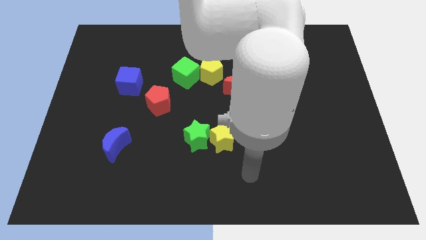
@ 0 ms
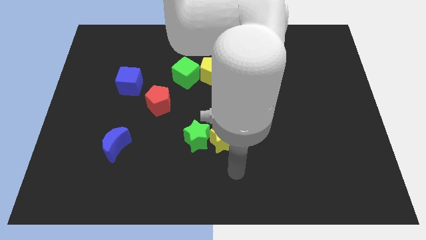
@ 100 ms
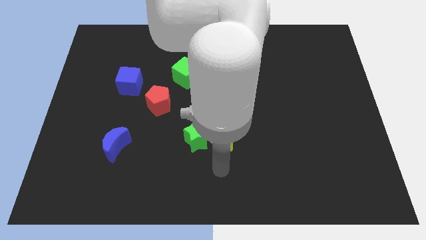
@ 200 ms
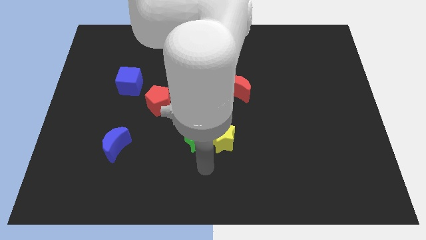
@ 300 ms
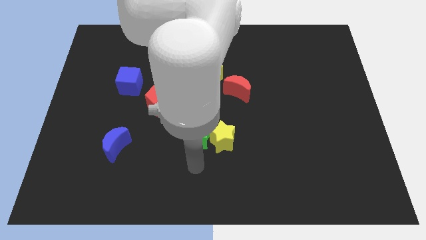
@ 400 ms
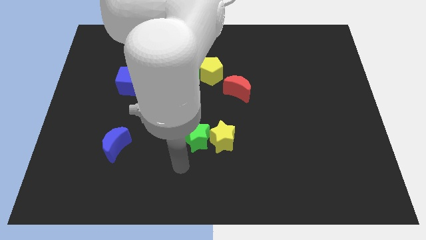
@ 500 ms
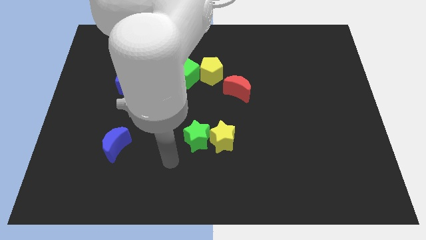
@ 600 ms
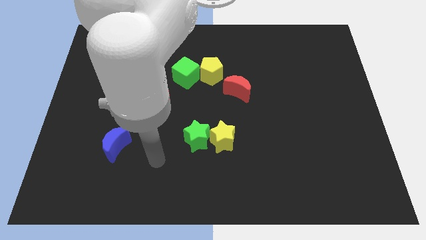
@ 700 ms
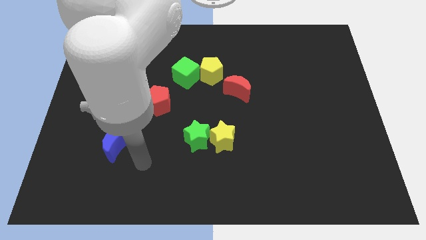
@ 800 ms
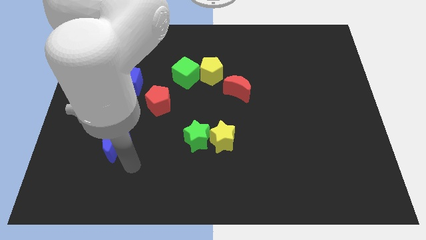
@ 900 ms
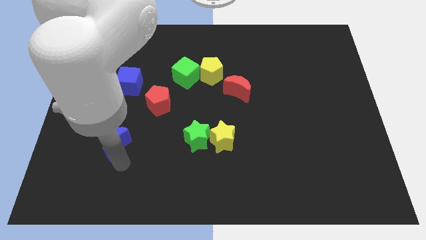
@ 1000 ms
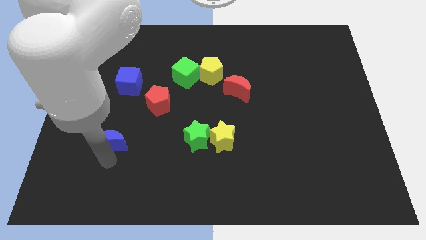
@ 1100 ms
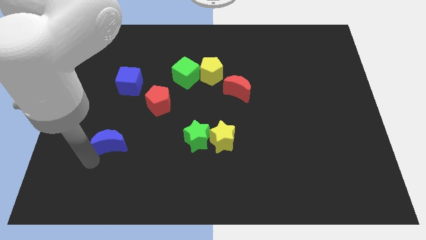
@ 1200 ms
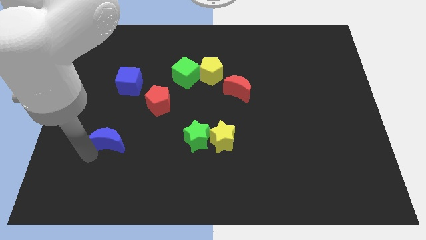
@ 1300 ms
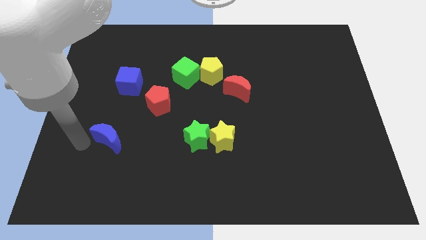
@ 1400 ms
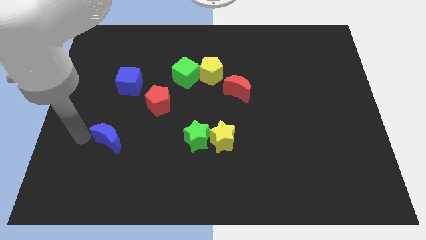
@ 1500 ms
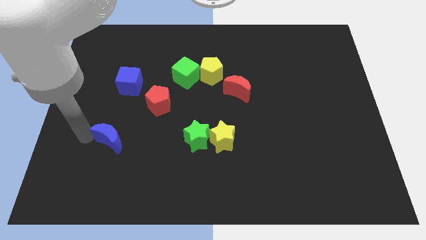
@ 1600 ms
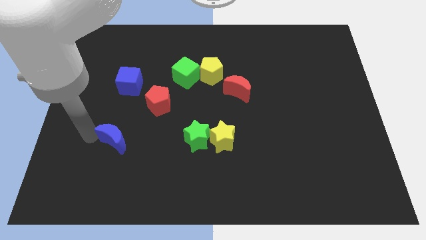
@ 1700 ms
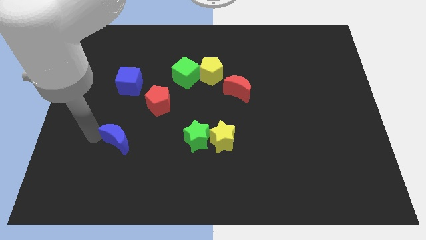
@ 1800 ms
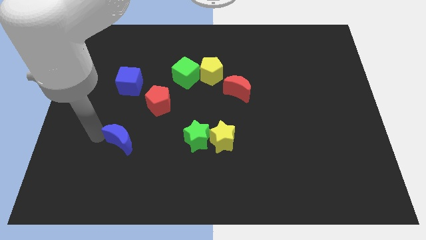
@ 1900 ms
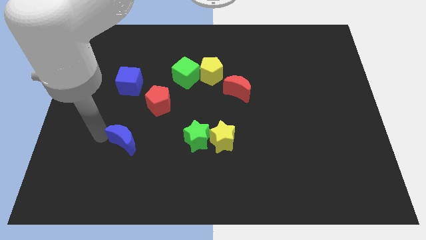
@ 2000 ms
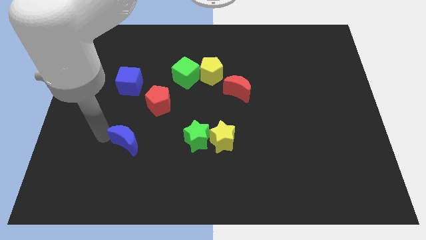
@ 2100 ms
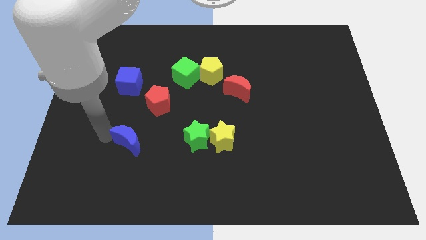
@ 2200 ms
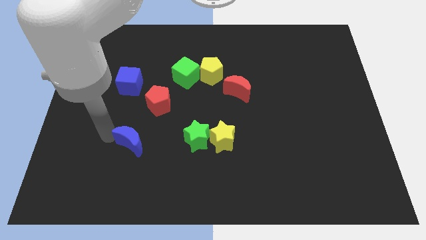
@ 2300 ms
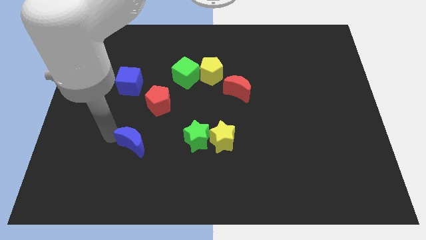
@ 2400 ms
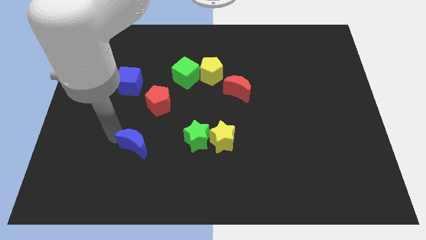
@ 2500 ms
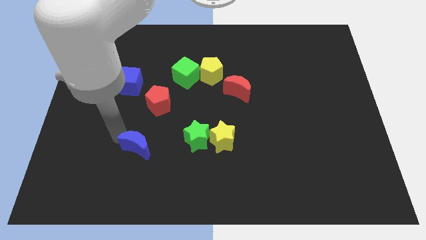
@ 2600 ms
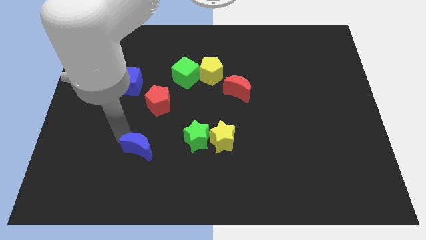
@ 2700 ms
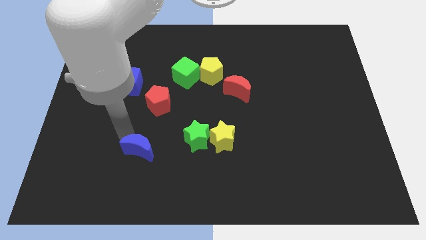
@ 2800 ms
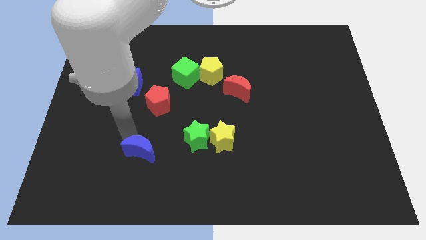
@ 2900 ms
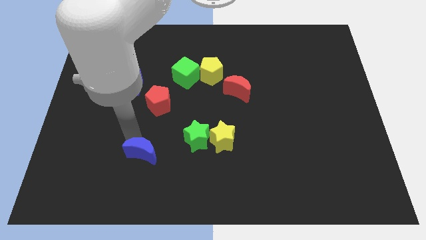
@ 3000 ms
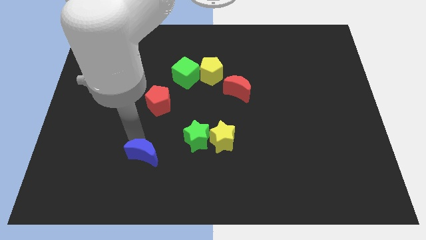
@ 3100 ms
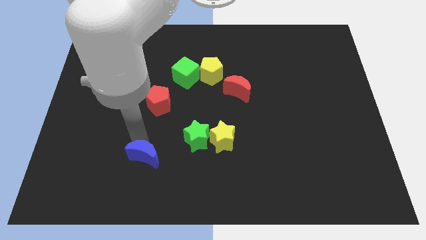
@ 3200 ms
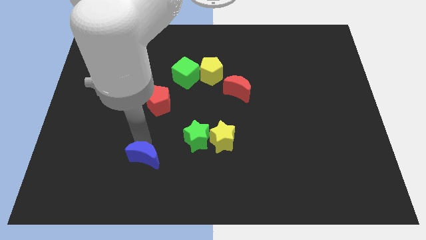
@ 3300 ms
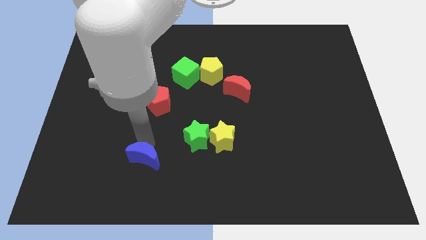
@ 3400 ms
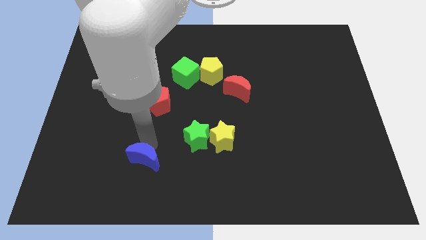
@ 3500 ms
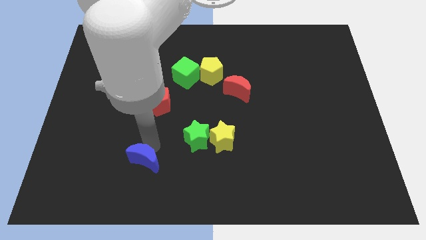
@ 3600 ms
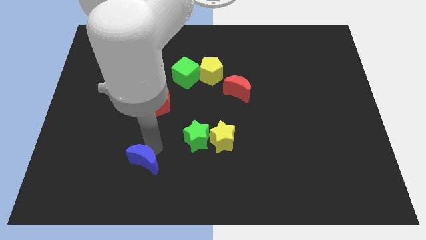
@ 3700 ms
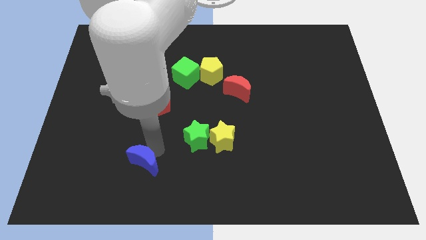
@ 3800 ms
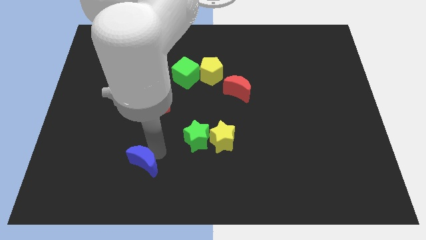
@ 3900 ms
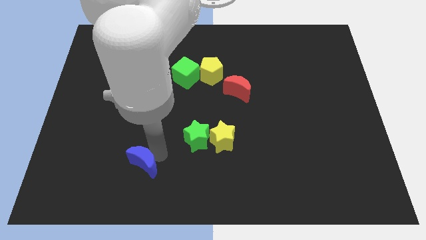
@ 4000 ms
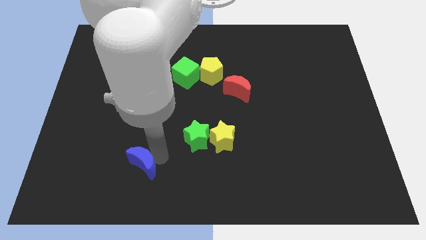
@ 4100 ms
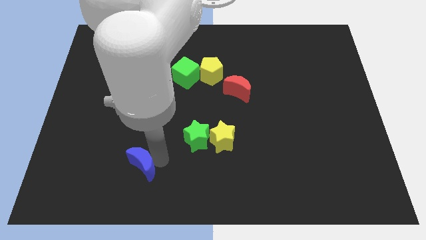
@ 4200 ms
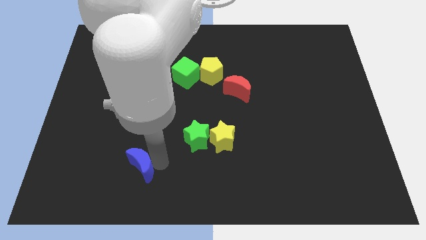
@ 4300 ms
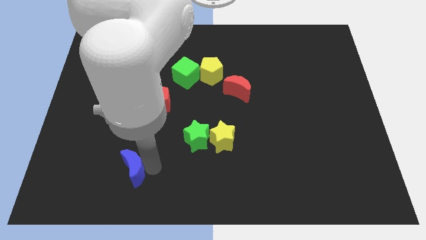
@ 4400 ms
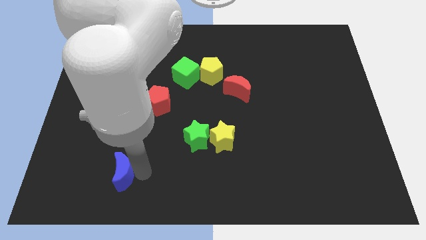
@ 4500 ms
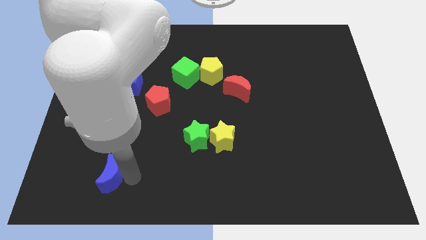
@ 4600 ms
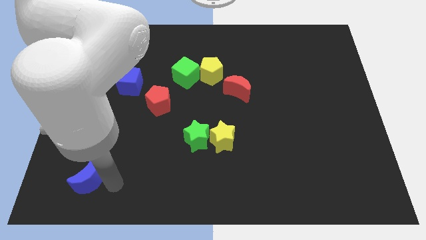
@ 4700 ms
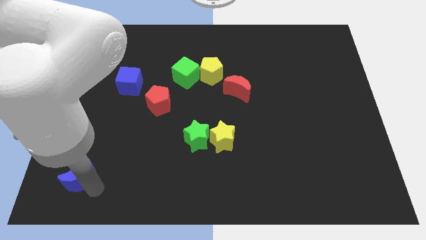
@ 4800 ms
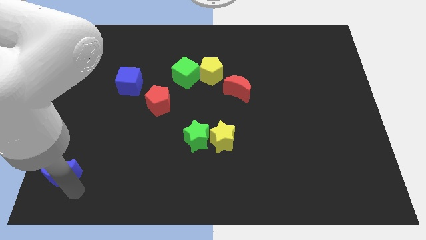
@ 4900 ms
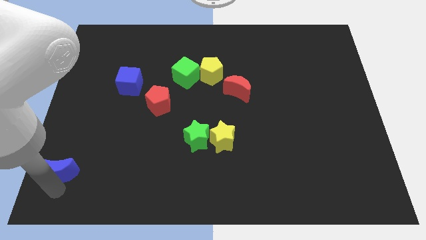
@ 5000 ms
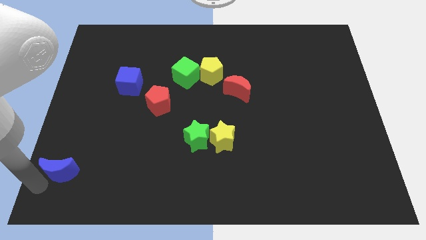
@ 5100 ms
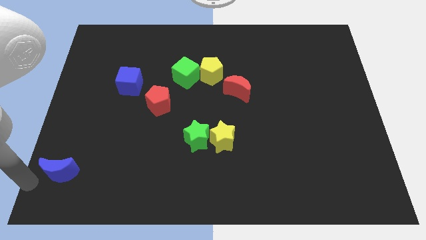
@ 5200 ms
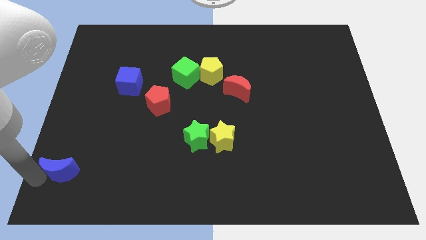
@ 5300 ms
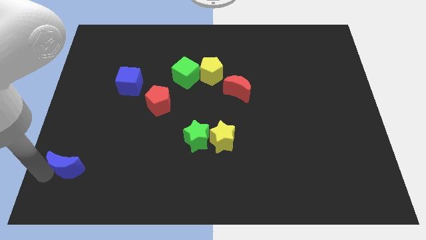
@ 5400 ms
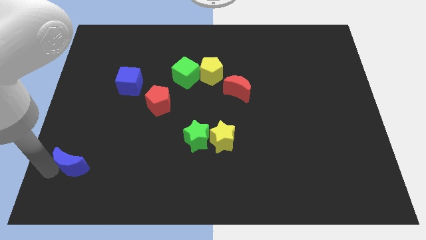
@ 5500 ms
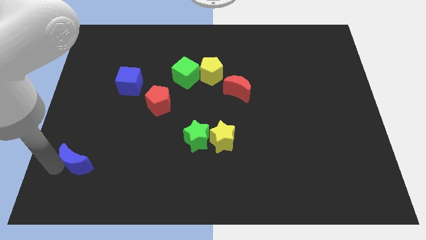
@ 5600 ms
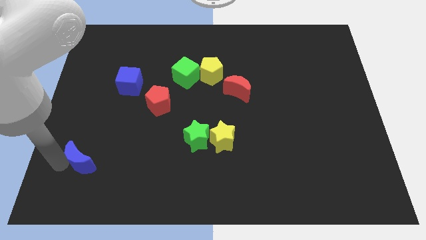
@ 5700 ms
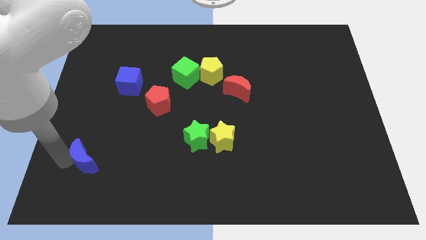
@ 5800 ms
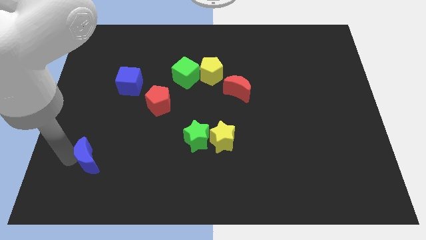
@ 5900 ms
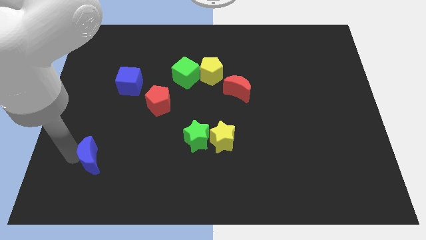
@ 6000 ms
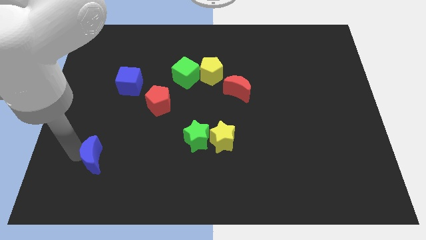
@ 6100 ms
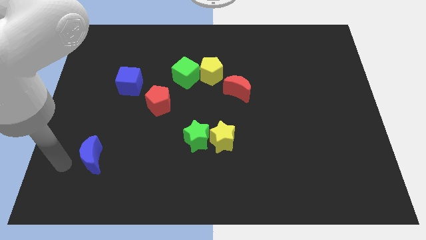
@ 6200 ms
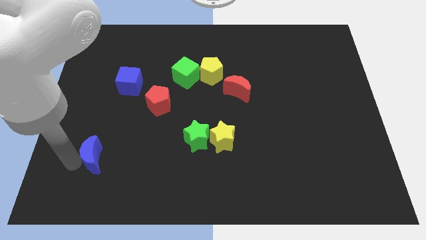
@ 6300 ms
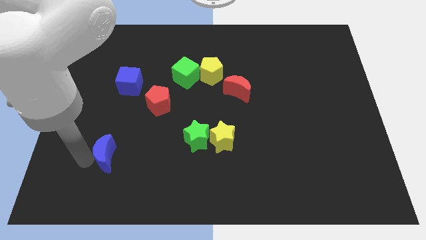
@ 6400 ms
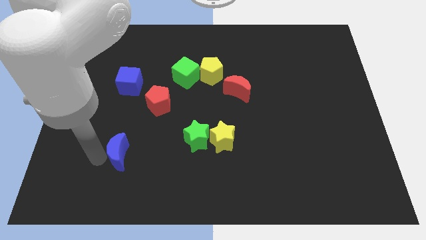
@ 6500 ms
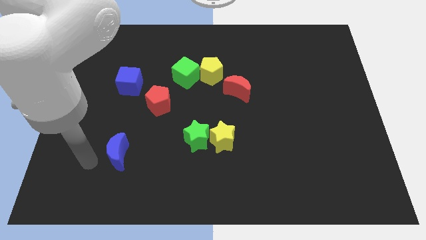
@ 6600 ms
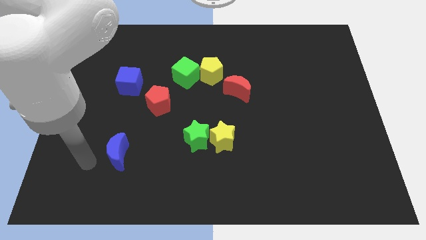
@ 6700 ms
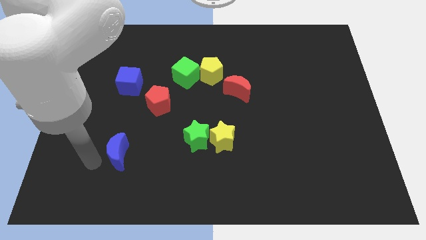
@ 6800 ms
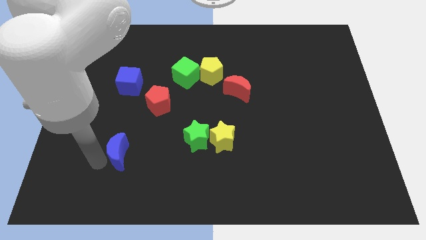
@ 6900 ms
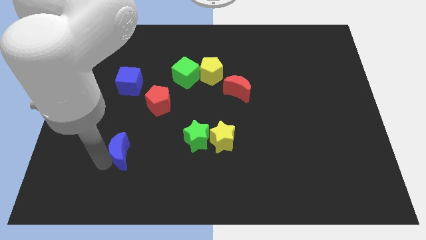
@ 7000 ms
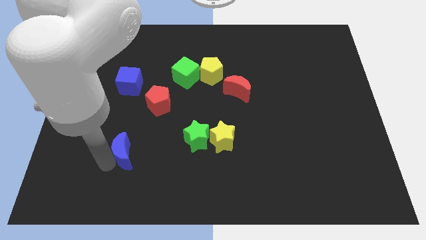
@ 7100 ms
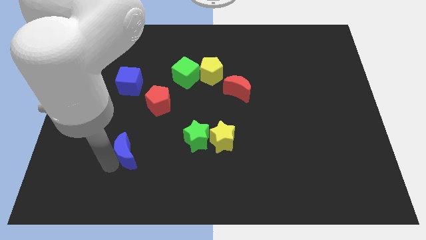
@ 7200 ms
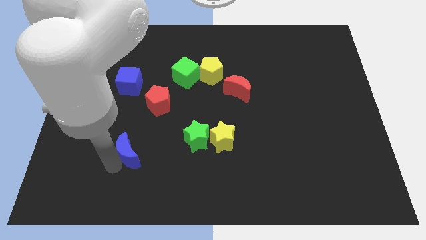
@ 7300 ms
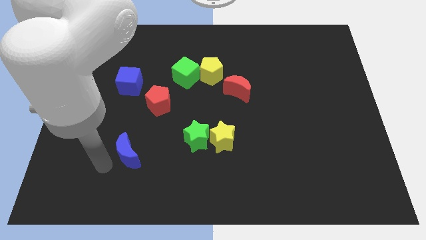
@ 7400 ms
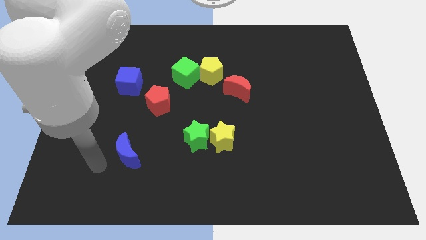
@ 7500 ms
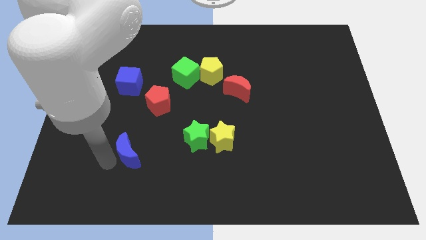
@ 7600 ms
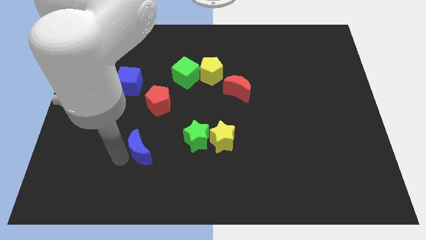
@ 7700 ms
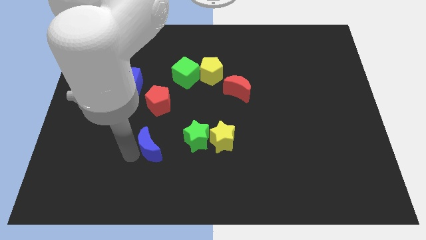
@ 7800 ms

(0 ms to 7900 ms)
slide the blue moon left of the yellow star
